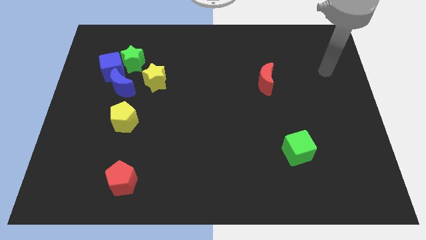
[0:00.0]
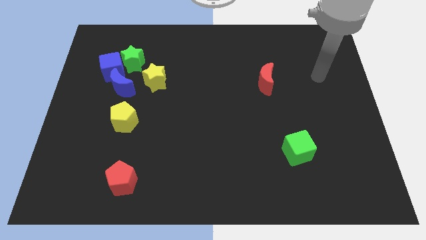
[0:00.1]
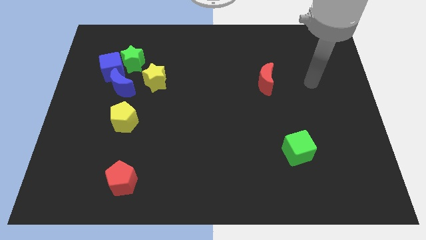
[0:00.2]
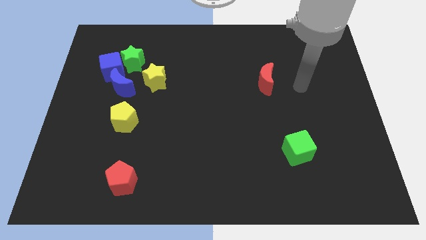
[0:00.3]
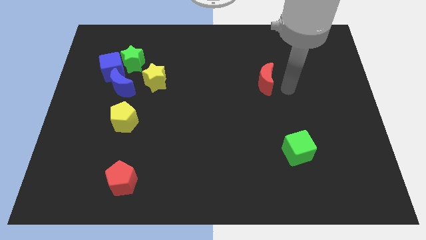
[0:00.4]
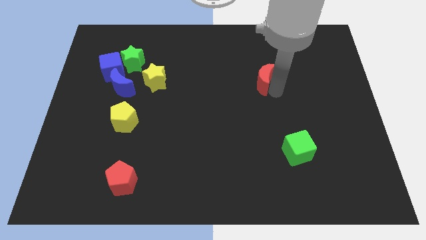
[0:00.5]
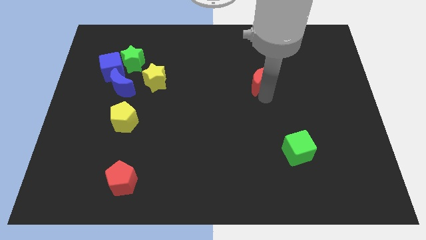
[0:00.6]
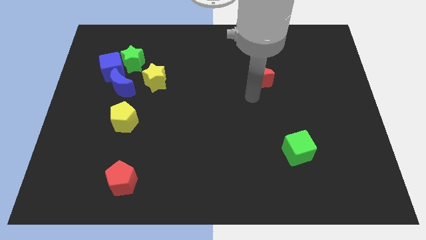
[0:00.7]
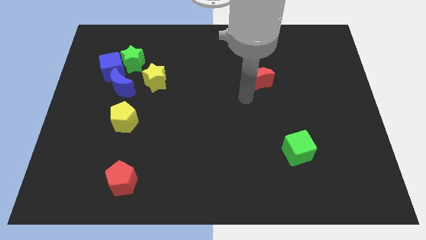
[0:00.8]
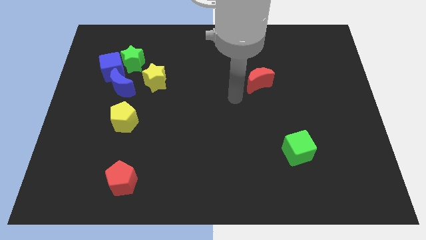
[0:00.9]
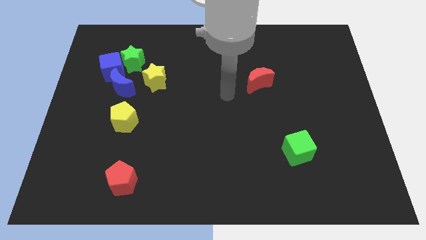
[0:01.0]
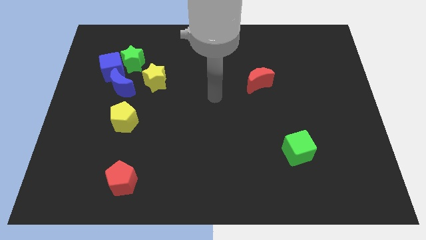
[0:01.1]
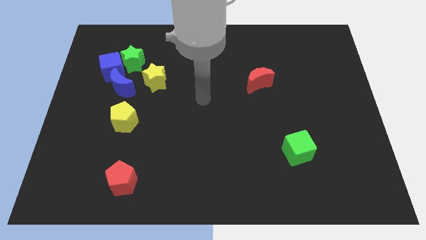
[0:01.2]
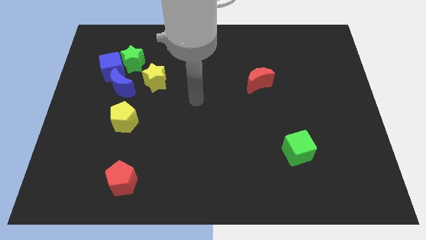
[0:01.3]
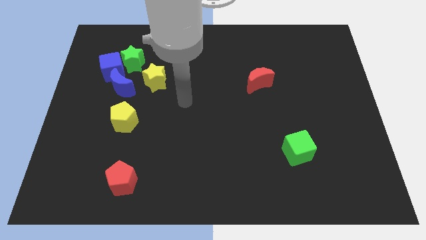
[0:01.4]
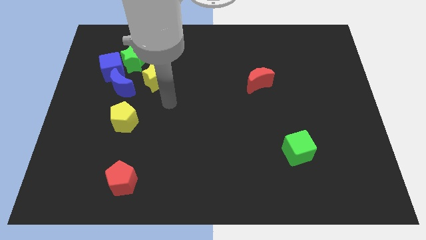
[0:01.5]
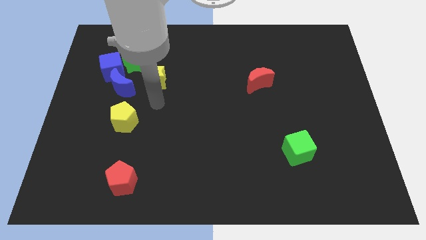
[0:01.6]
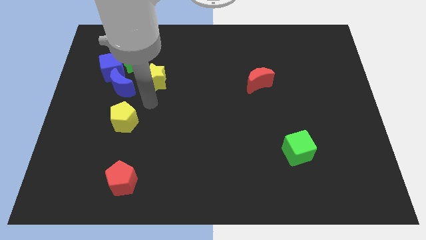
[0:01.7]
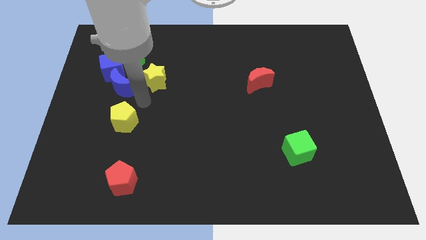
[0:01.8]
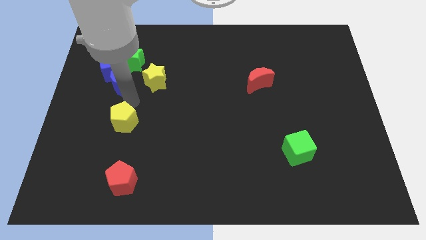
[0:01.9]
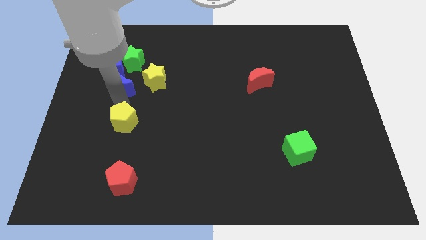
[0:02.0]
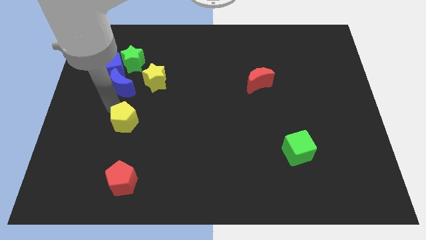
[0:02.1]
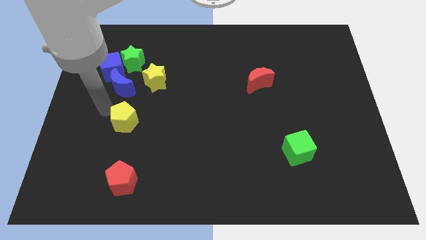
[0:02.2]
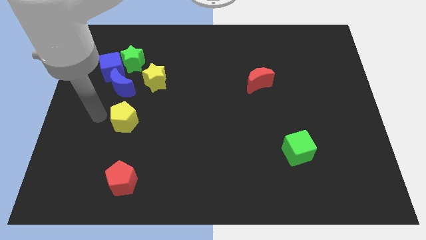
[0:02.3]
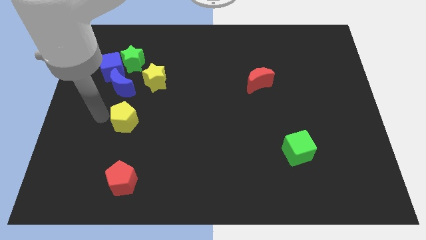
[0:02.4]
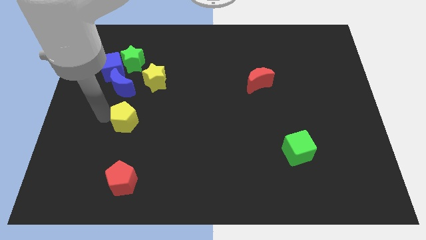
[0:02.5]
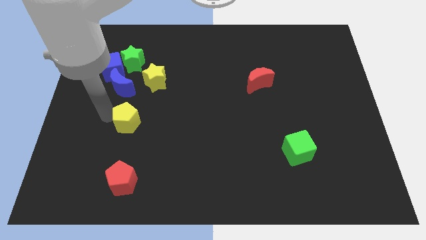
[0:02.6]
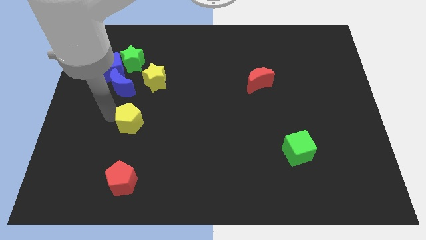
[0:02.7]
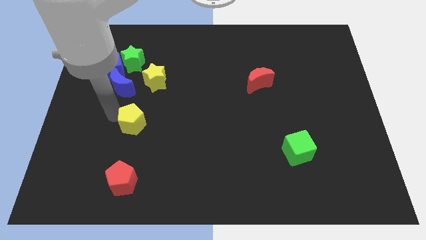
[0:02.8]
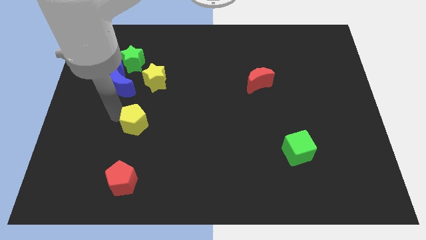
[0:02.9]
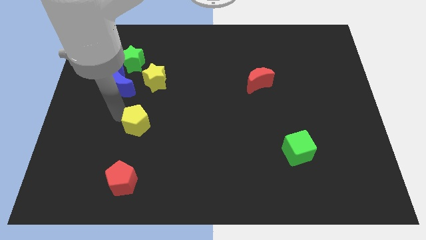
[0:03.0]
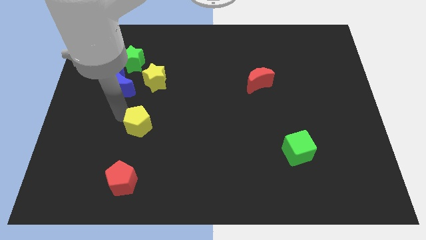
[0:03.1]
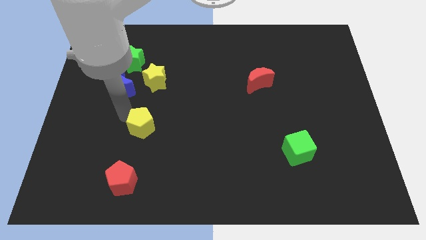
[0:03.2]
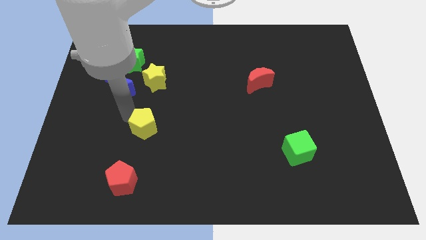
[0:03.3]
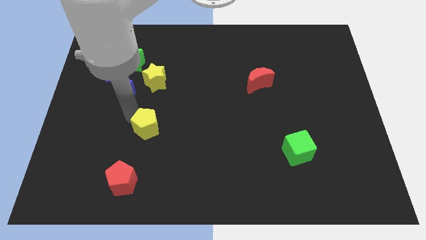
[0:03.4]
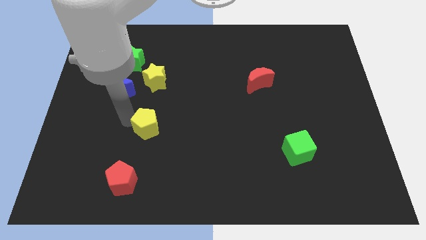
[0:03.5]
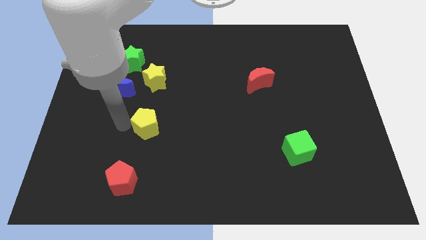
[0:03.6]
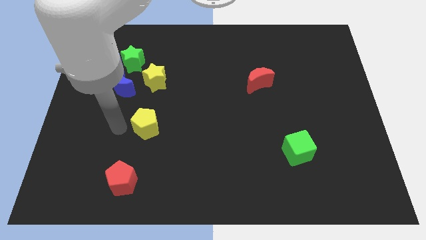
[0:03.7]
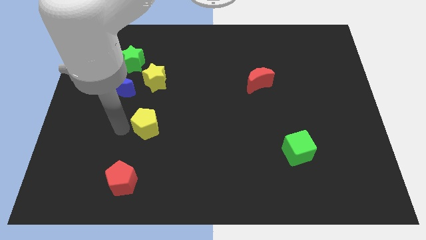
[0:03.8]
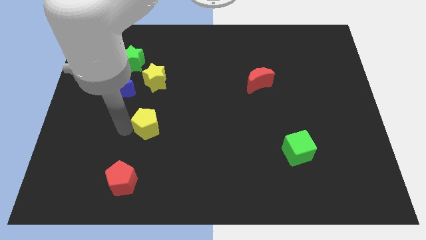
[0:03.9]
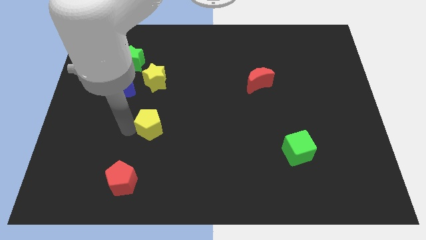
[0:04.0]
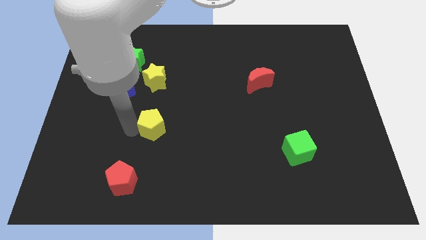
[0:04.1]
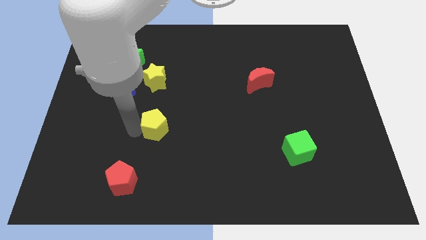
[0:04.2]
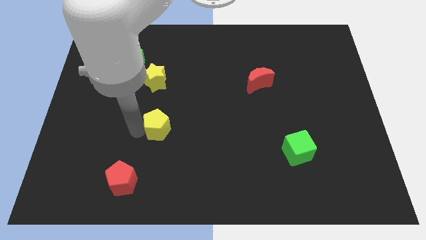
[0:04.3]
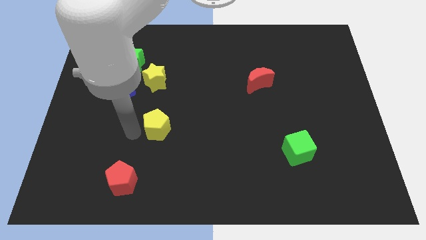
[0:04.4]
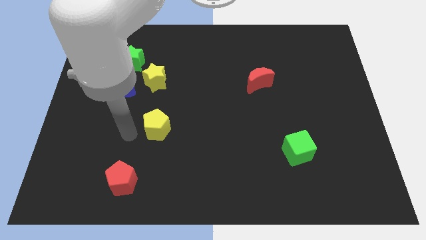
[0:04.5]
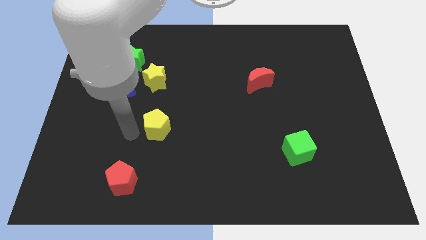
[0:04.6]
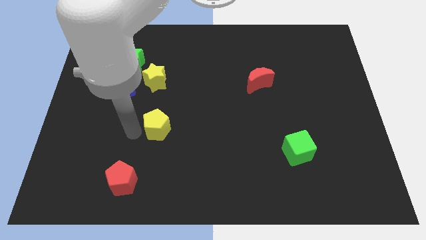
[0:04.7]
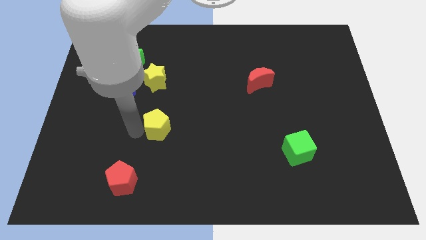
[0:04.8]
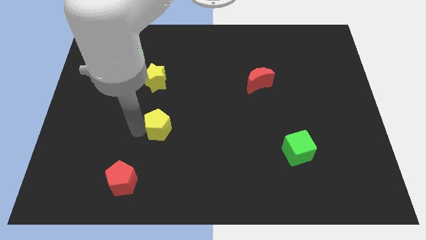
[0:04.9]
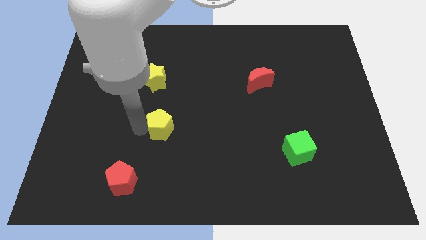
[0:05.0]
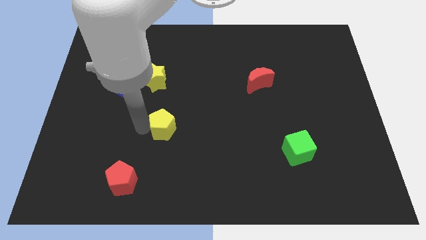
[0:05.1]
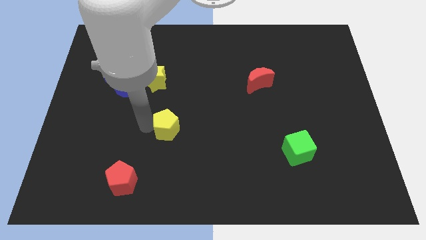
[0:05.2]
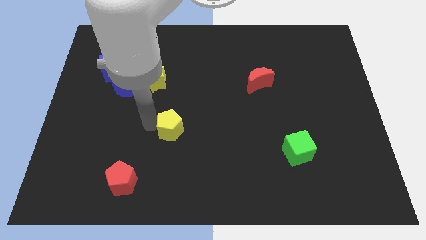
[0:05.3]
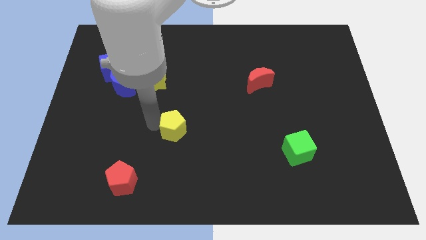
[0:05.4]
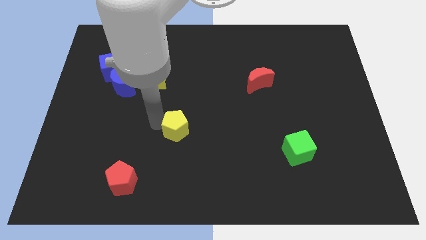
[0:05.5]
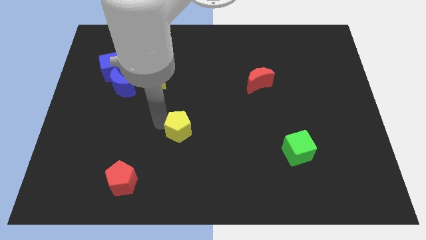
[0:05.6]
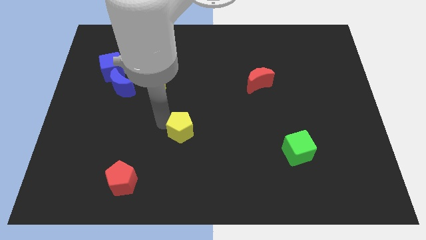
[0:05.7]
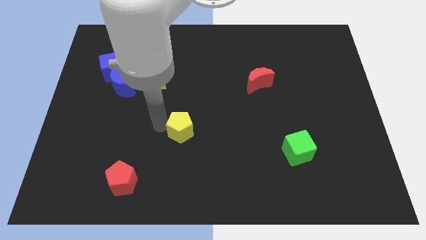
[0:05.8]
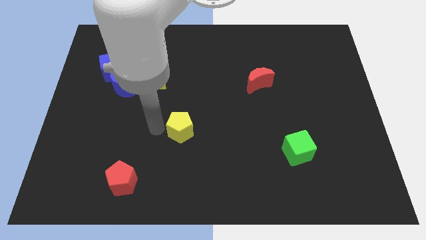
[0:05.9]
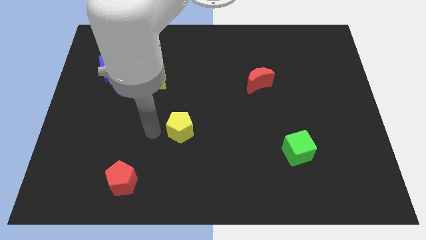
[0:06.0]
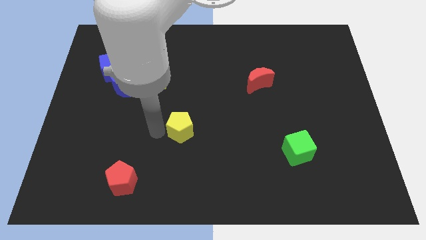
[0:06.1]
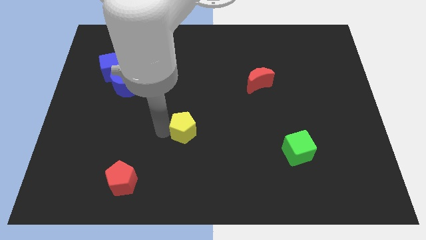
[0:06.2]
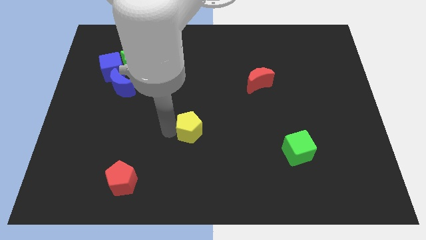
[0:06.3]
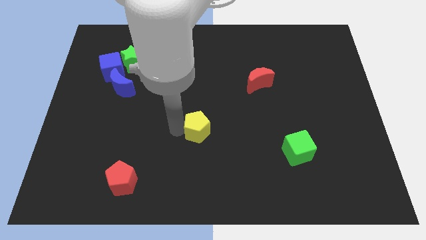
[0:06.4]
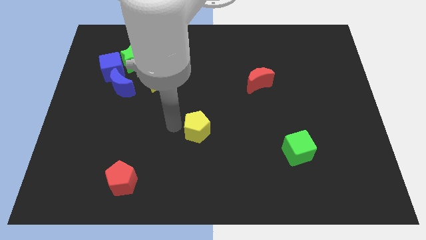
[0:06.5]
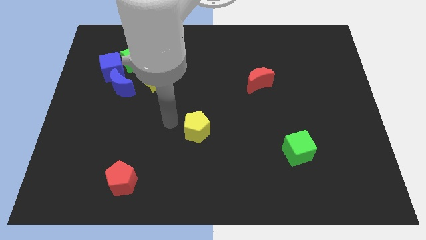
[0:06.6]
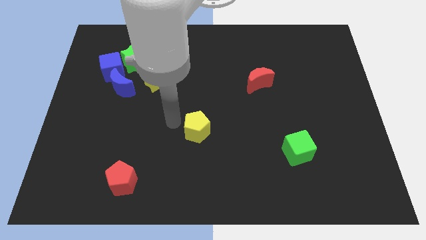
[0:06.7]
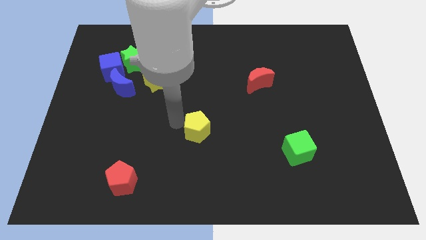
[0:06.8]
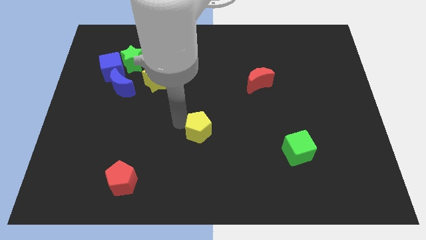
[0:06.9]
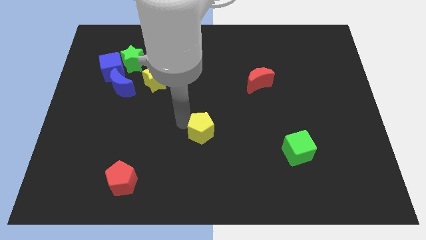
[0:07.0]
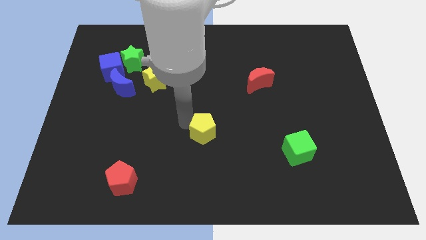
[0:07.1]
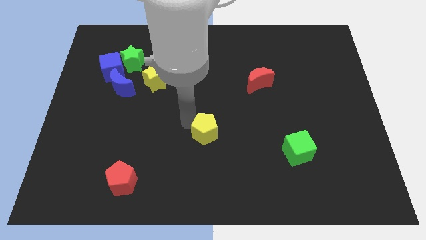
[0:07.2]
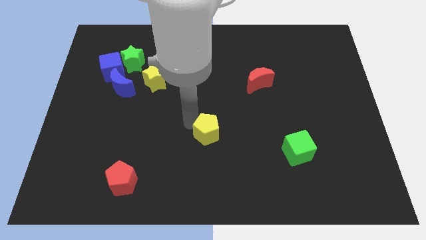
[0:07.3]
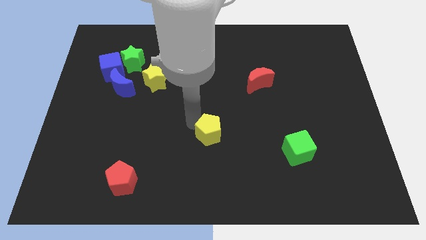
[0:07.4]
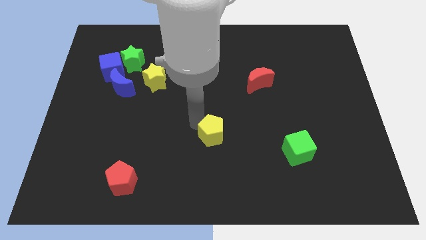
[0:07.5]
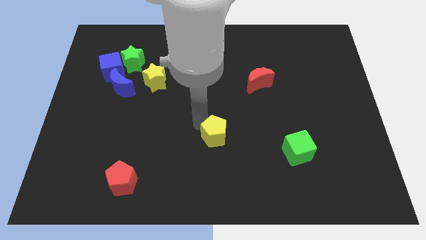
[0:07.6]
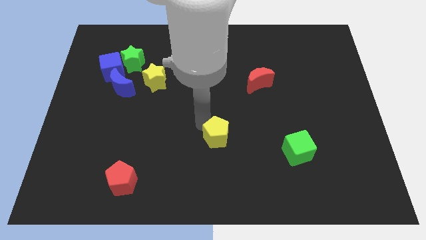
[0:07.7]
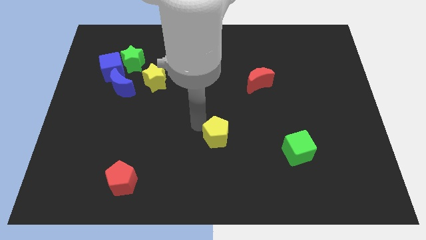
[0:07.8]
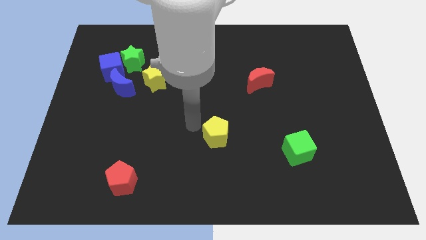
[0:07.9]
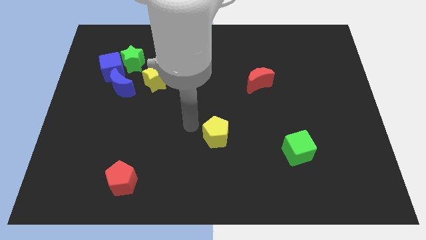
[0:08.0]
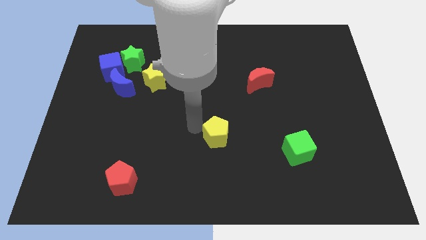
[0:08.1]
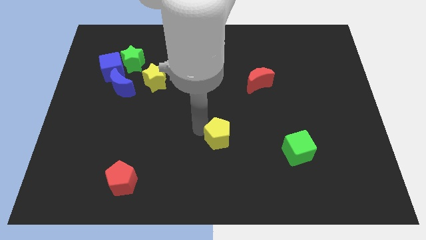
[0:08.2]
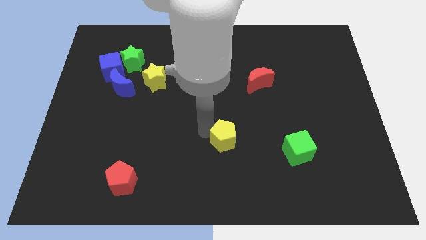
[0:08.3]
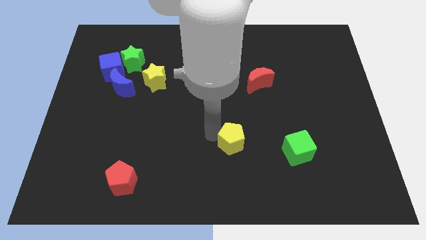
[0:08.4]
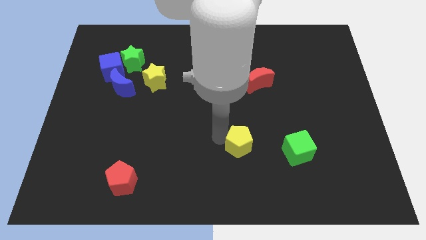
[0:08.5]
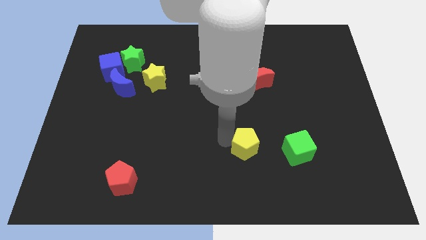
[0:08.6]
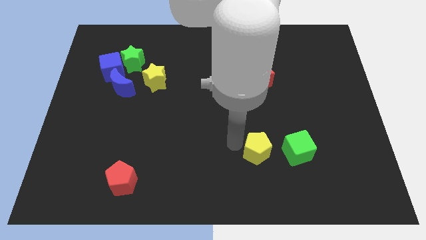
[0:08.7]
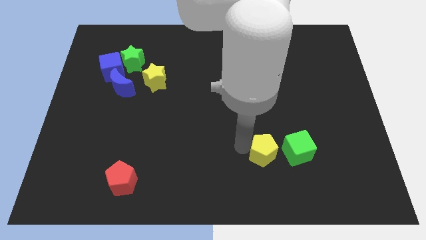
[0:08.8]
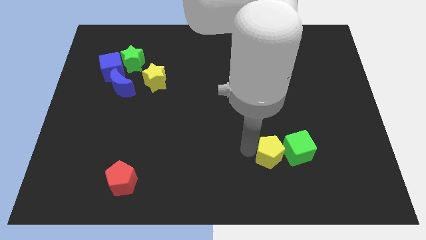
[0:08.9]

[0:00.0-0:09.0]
slide the yellow pentagon next to the green cube
